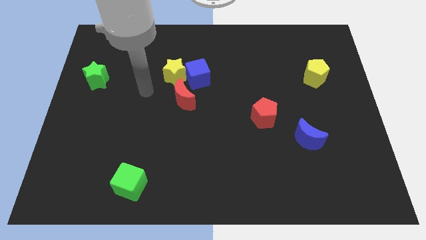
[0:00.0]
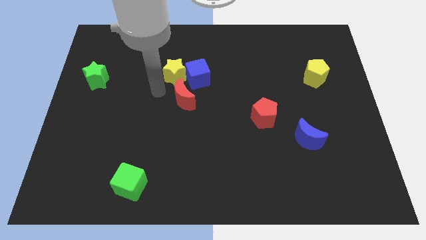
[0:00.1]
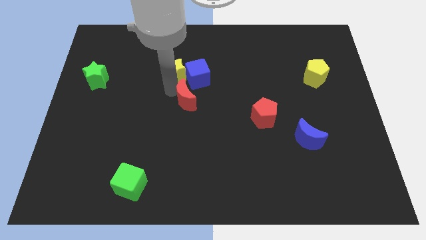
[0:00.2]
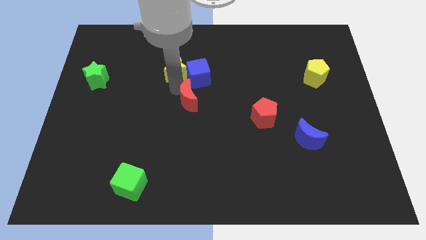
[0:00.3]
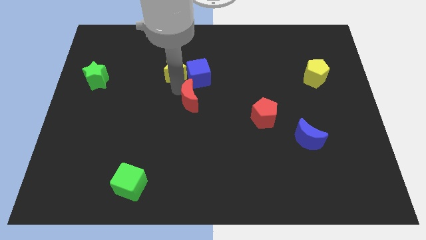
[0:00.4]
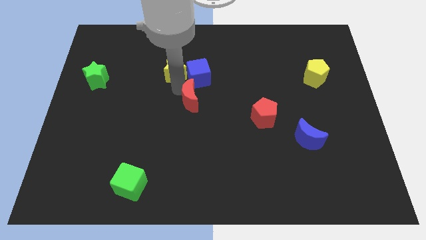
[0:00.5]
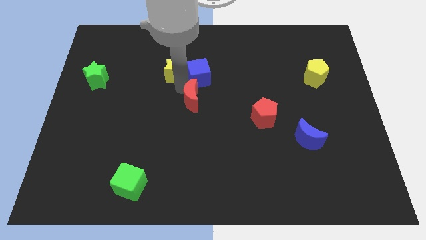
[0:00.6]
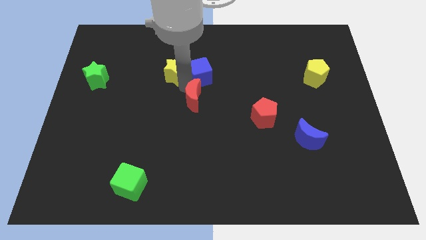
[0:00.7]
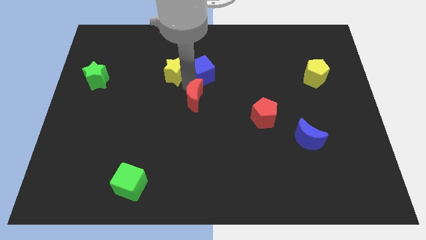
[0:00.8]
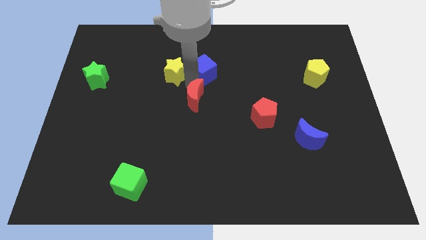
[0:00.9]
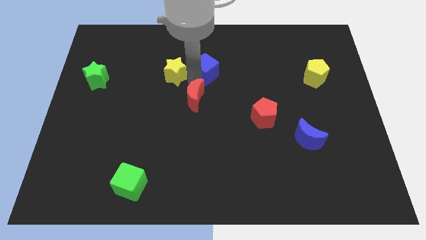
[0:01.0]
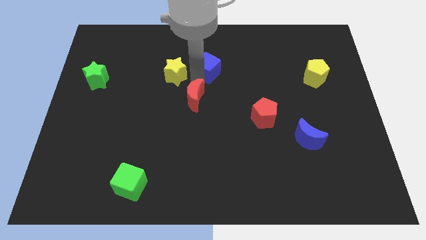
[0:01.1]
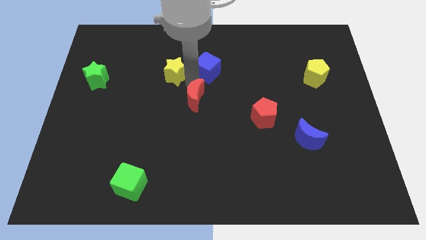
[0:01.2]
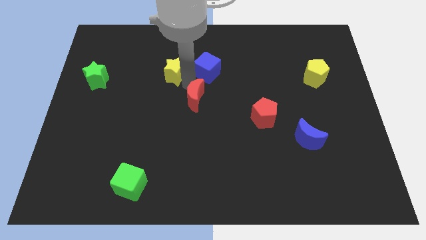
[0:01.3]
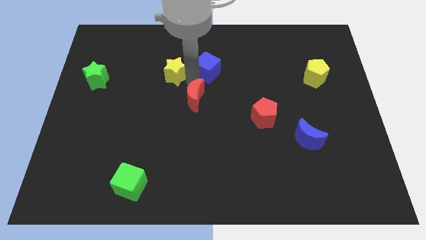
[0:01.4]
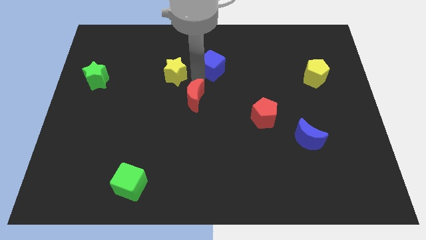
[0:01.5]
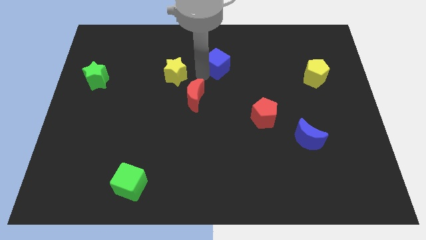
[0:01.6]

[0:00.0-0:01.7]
separate the blue cube from the yellow star and red moon

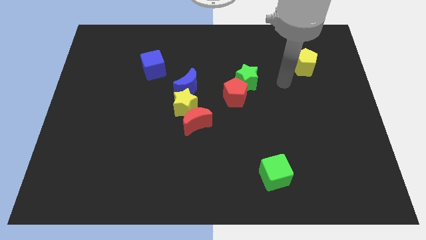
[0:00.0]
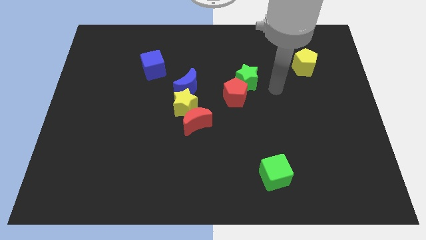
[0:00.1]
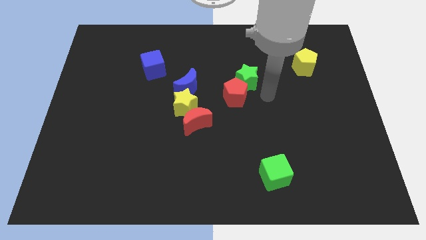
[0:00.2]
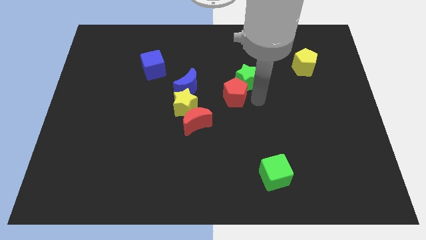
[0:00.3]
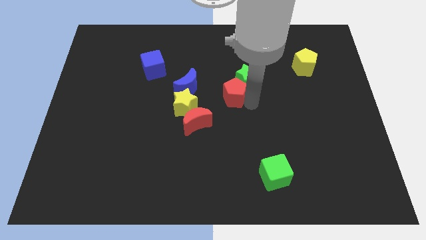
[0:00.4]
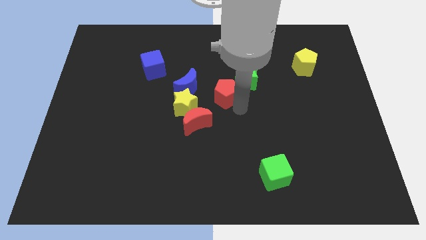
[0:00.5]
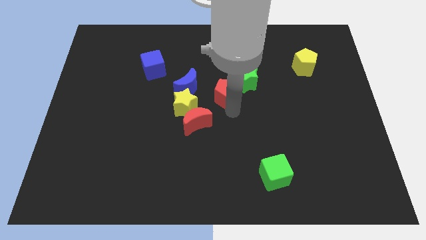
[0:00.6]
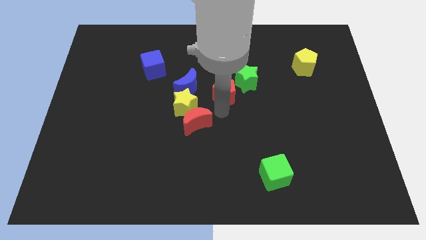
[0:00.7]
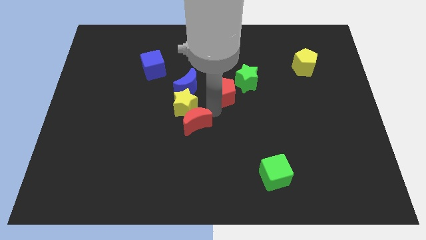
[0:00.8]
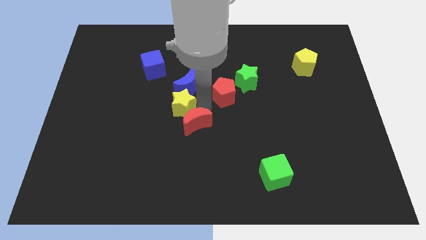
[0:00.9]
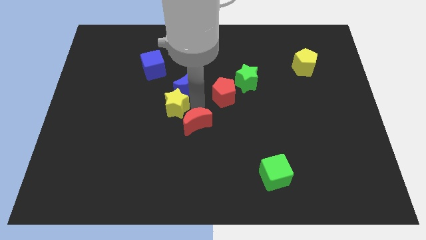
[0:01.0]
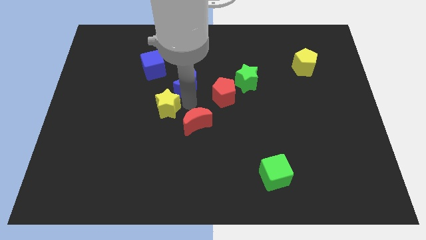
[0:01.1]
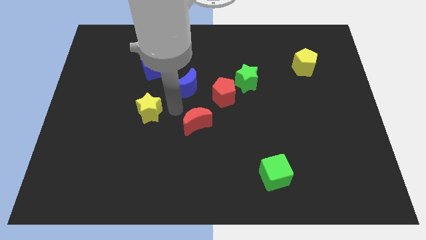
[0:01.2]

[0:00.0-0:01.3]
pull the red moon apart from the yellow star

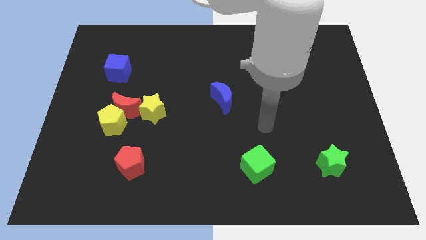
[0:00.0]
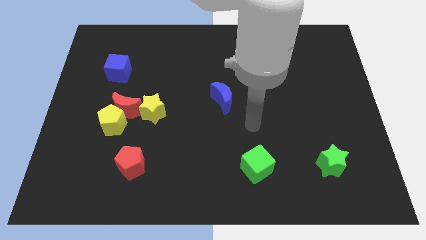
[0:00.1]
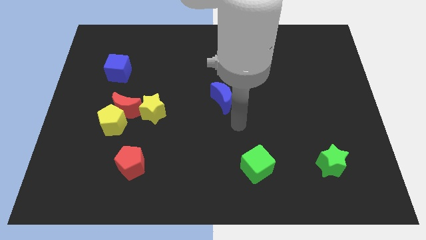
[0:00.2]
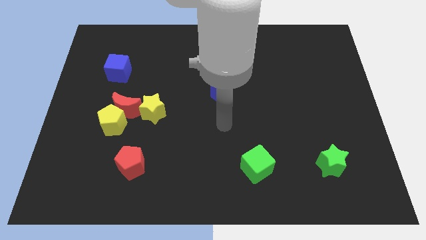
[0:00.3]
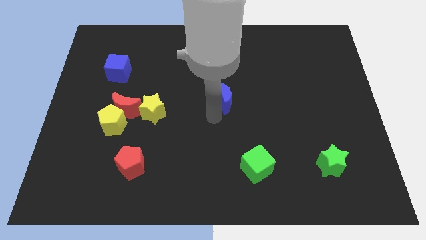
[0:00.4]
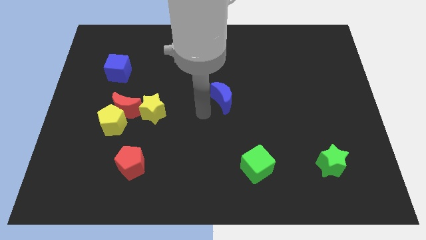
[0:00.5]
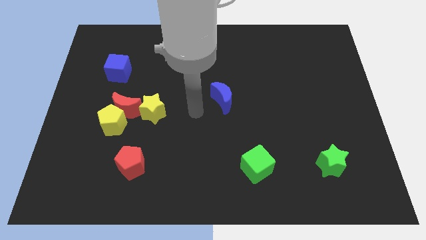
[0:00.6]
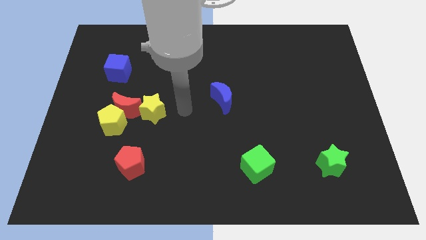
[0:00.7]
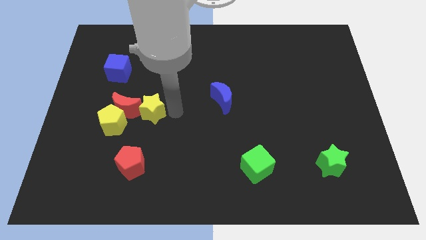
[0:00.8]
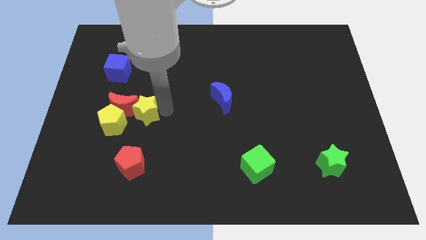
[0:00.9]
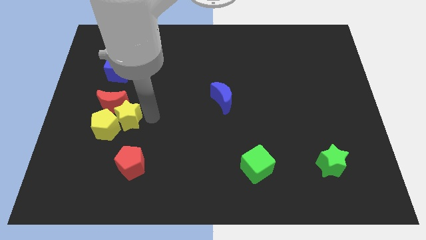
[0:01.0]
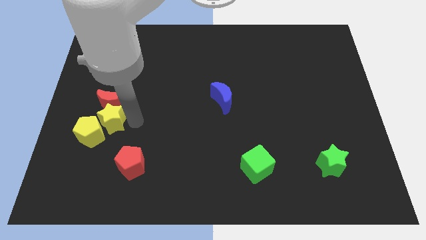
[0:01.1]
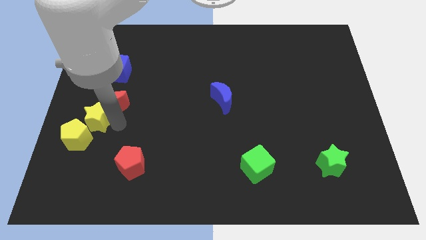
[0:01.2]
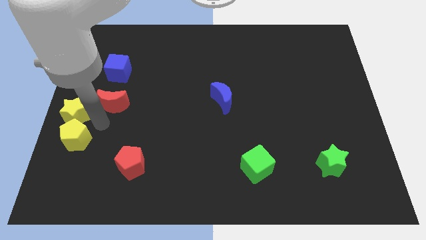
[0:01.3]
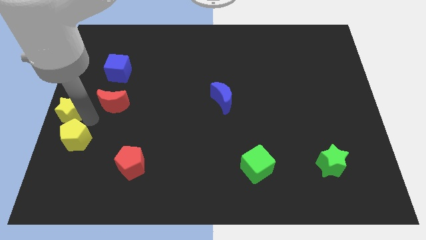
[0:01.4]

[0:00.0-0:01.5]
pull the red moon apart from the yellow pentagon and yellow star

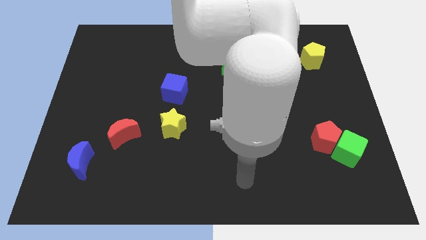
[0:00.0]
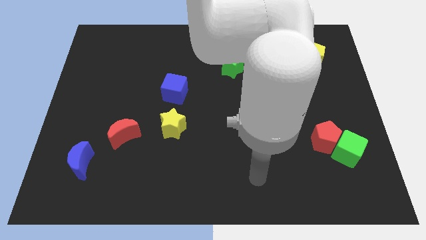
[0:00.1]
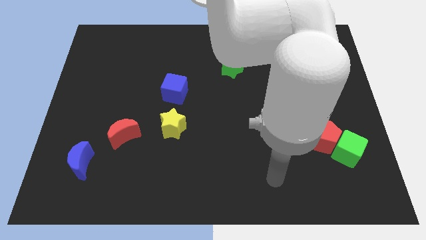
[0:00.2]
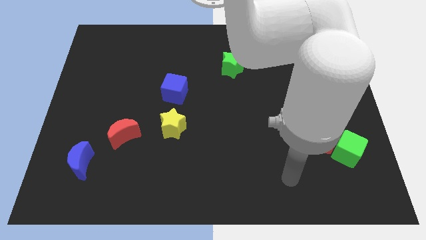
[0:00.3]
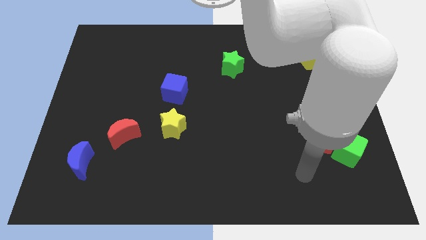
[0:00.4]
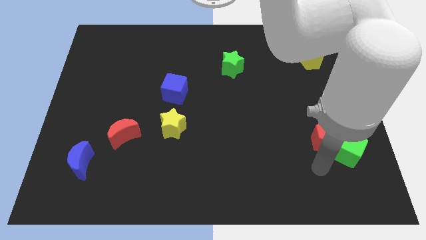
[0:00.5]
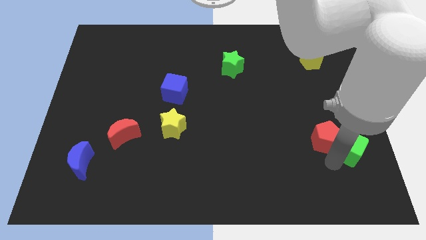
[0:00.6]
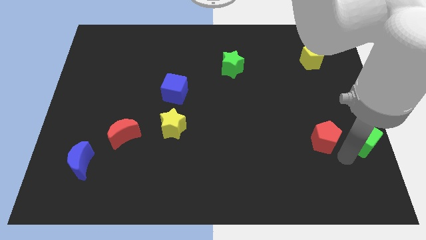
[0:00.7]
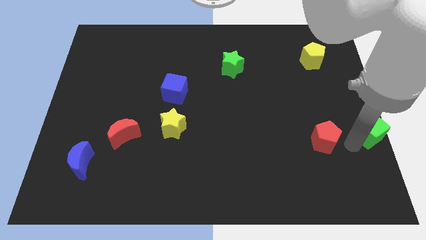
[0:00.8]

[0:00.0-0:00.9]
pull the red pentagon apart from the green cube

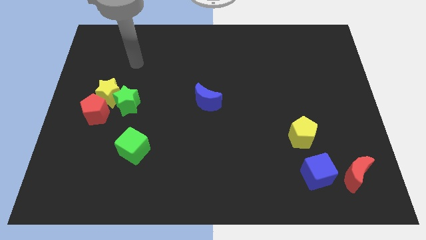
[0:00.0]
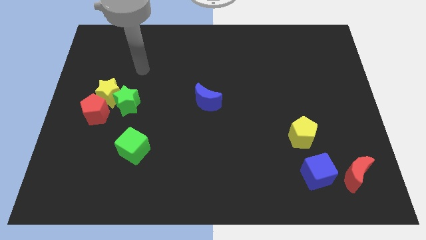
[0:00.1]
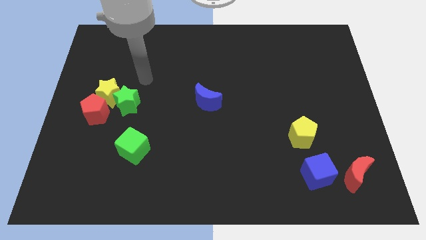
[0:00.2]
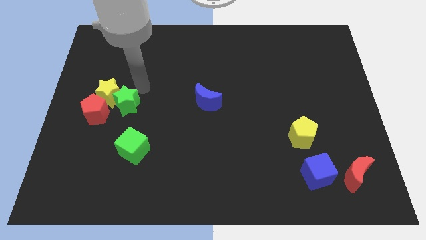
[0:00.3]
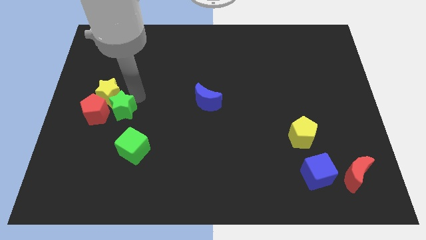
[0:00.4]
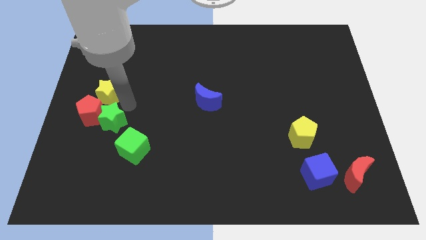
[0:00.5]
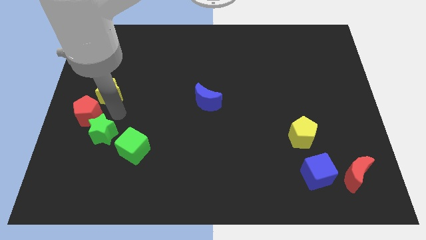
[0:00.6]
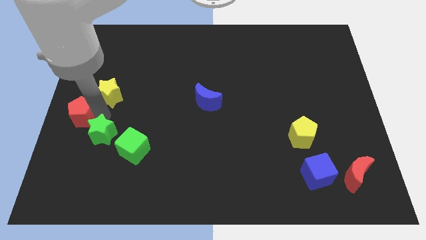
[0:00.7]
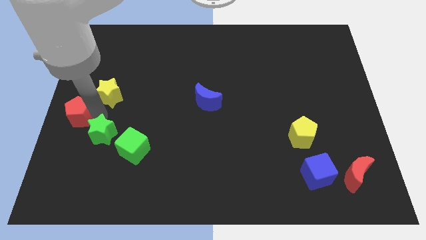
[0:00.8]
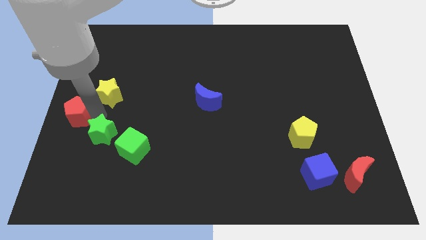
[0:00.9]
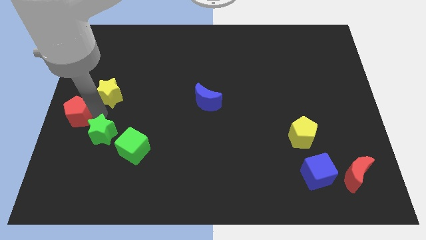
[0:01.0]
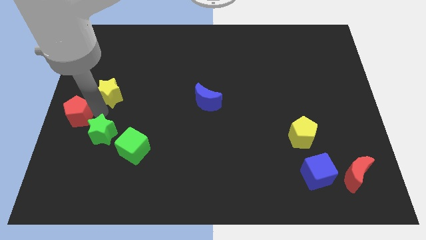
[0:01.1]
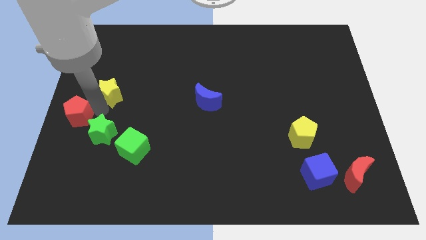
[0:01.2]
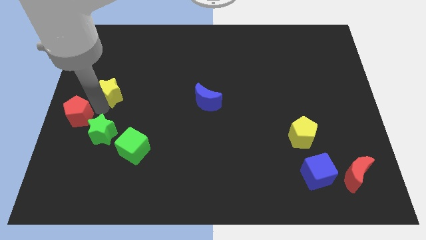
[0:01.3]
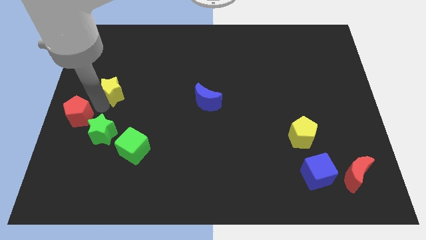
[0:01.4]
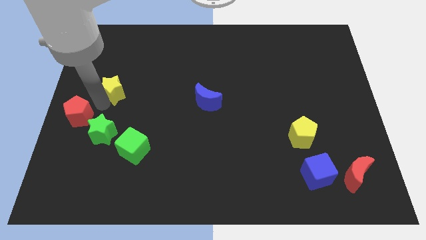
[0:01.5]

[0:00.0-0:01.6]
pull the yellow star apart from the green star and red pentagon

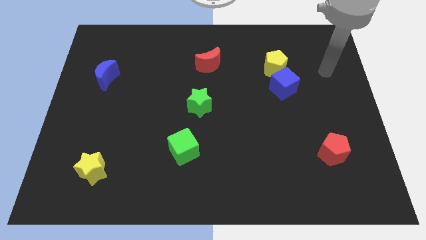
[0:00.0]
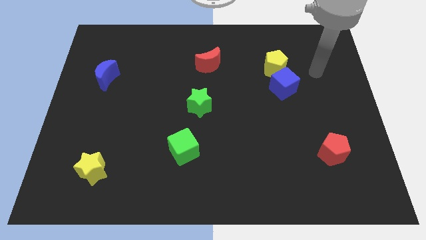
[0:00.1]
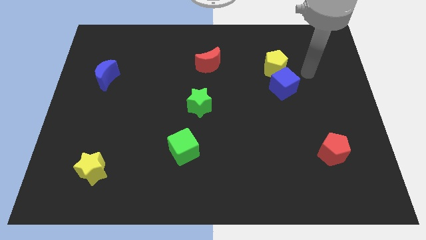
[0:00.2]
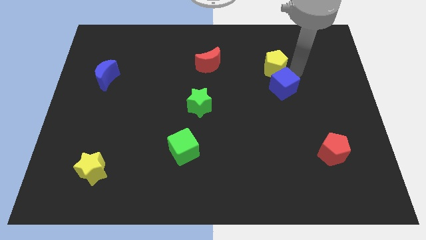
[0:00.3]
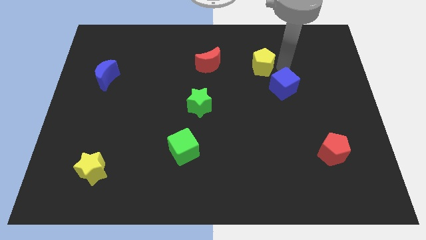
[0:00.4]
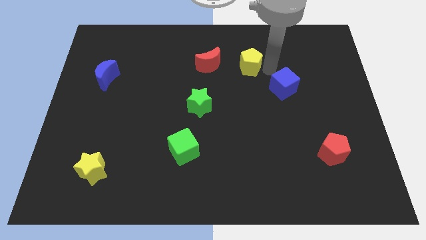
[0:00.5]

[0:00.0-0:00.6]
separate the blue cube from the yellow pentagon

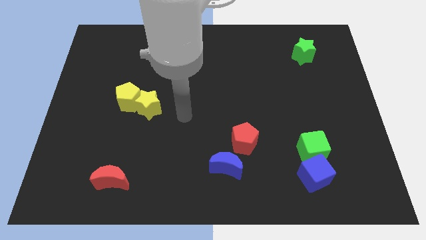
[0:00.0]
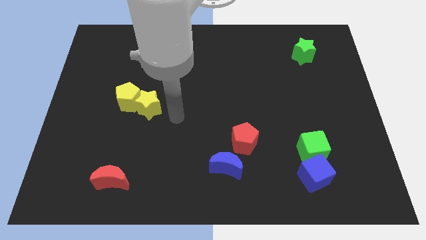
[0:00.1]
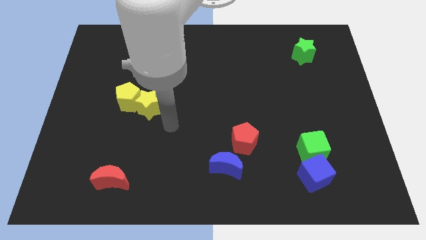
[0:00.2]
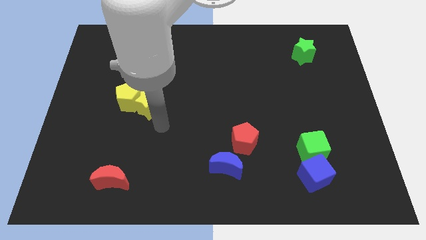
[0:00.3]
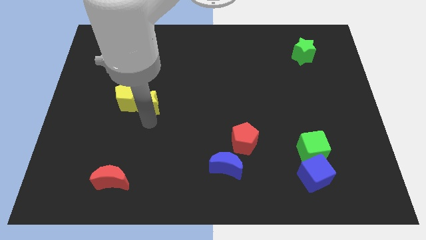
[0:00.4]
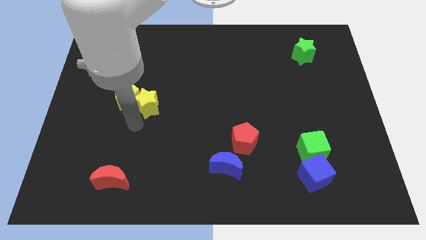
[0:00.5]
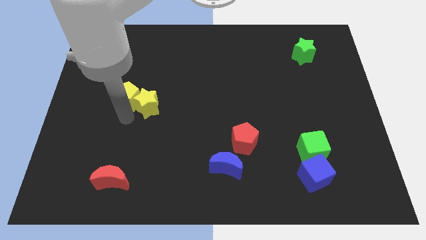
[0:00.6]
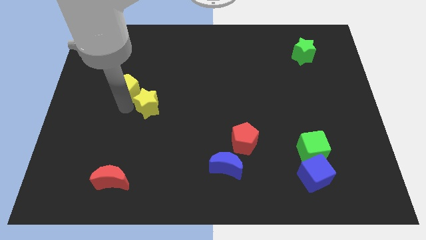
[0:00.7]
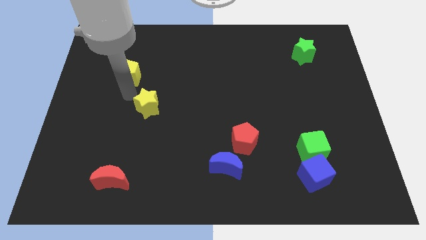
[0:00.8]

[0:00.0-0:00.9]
move the yellow star away from the yellow pentagon

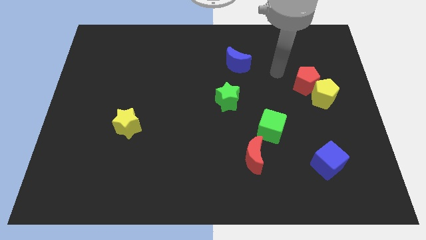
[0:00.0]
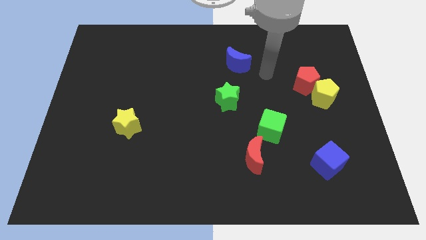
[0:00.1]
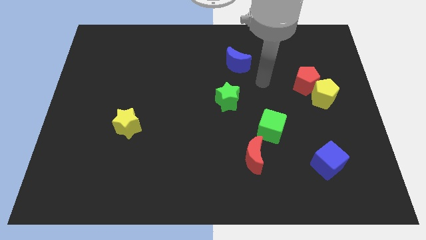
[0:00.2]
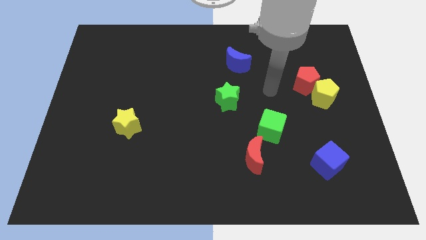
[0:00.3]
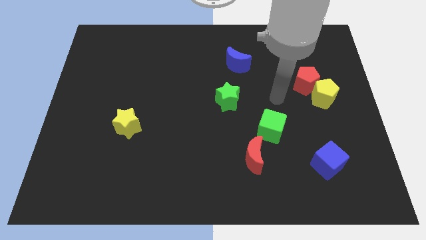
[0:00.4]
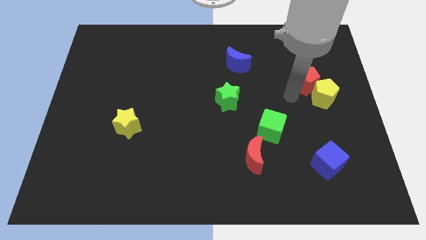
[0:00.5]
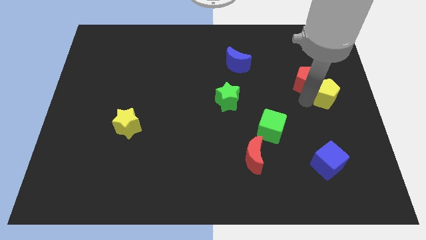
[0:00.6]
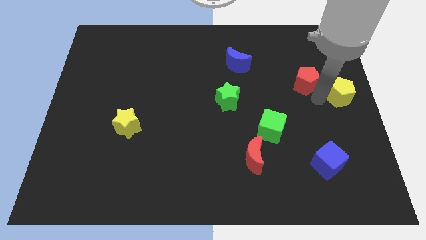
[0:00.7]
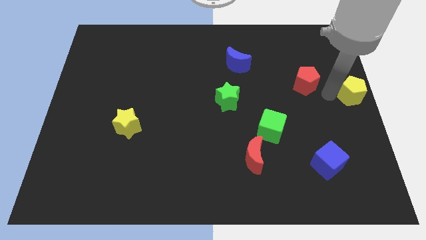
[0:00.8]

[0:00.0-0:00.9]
move the red pentagon away from the yellow pentagon
